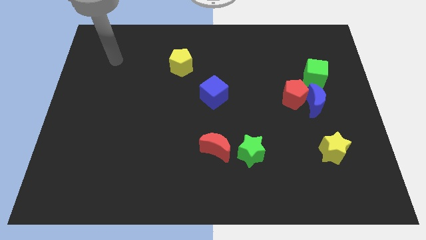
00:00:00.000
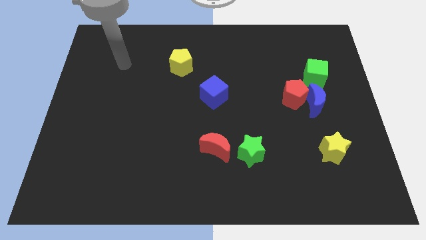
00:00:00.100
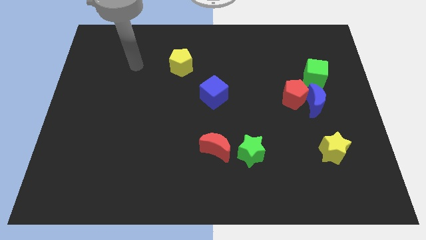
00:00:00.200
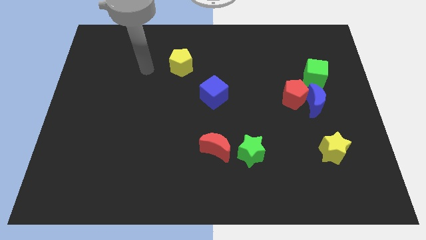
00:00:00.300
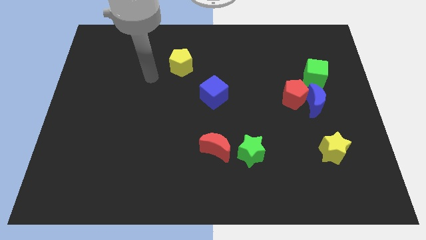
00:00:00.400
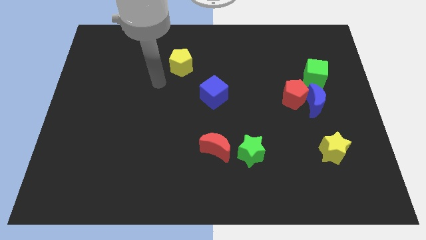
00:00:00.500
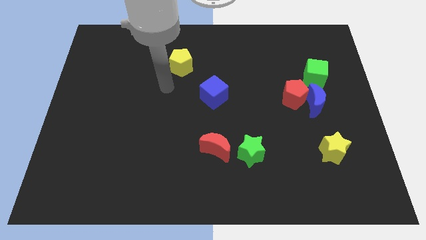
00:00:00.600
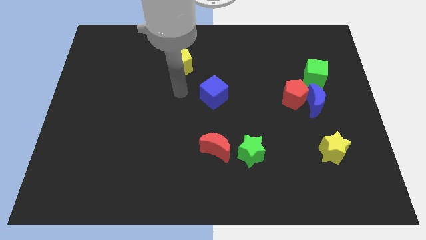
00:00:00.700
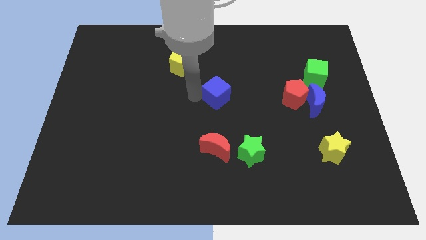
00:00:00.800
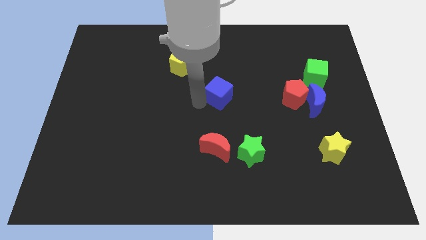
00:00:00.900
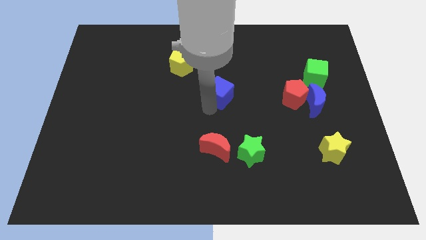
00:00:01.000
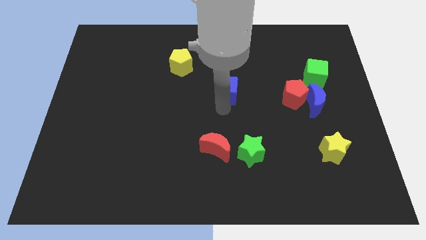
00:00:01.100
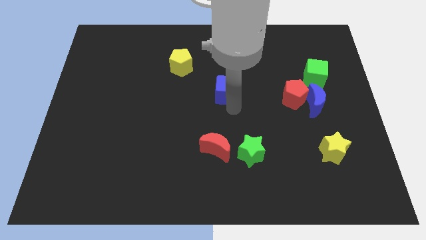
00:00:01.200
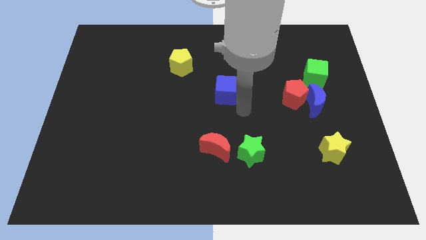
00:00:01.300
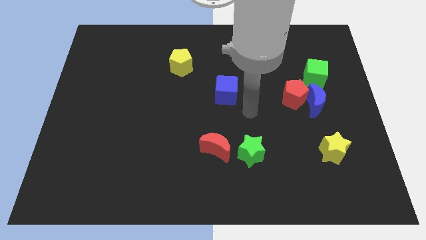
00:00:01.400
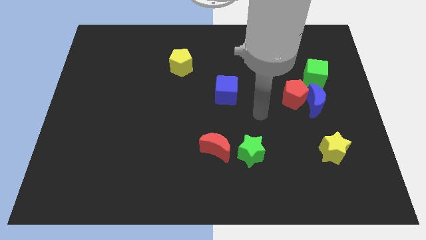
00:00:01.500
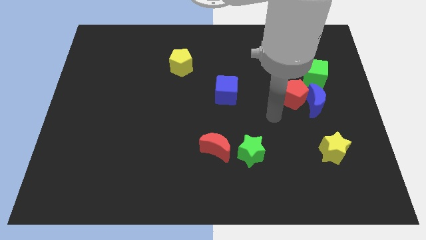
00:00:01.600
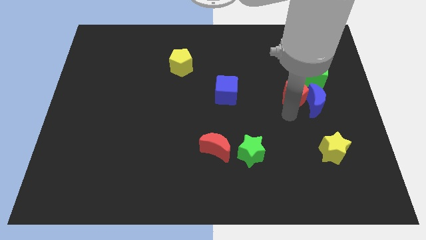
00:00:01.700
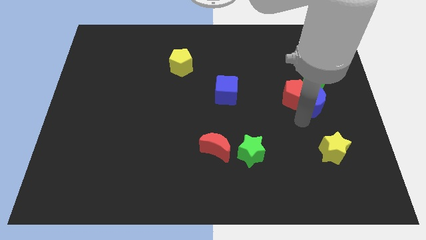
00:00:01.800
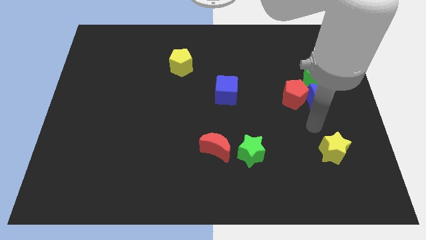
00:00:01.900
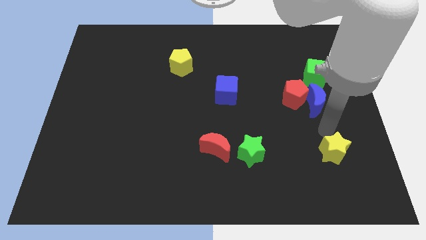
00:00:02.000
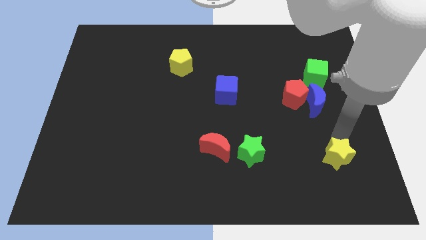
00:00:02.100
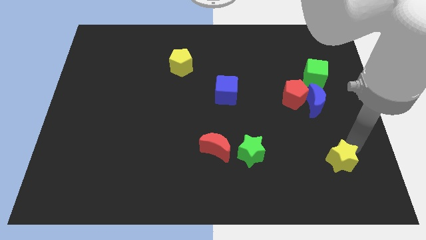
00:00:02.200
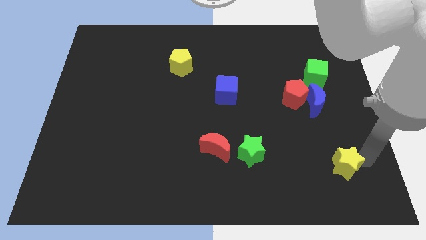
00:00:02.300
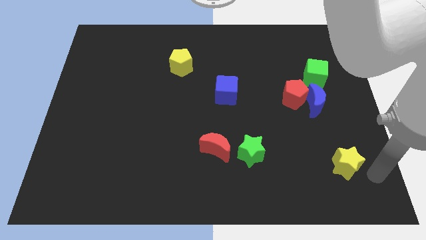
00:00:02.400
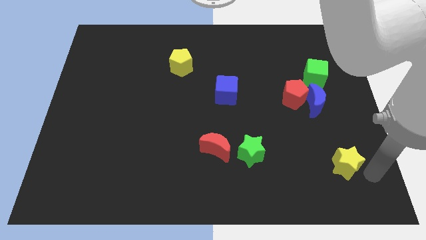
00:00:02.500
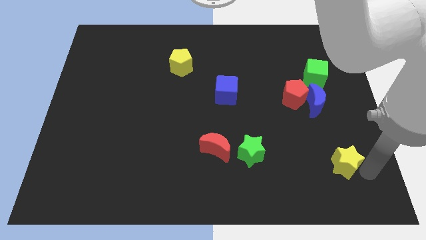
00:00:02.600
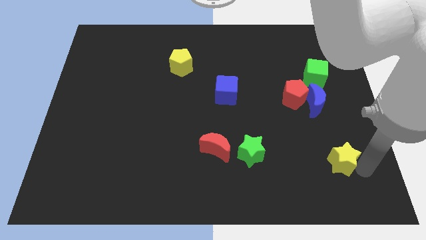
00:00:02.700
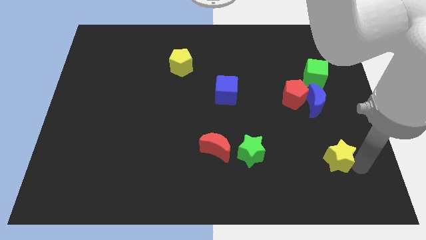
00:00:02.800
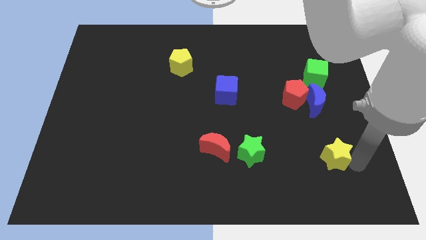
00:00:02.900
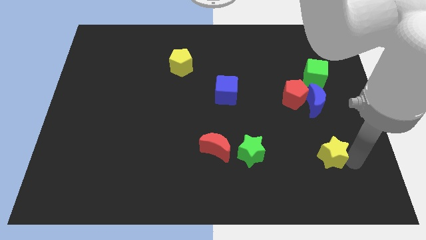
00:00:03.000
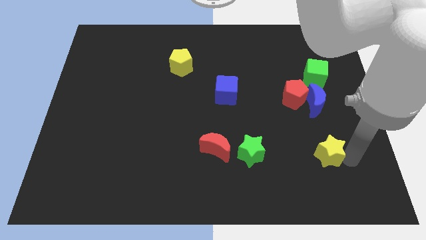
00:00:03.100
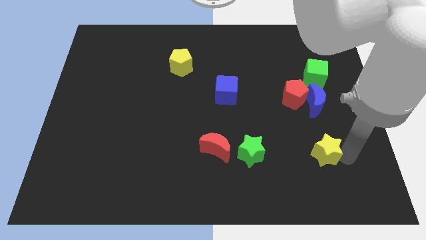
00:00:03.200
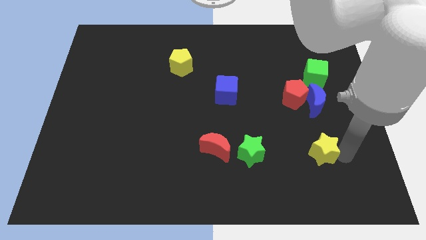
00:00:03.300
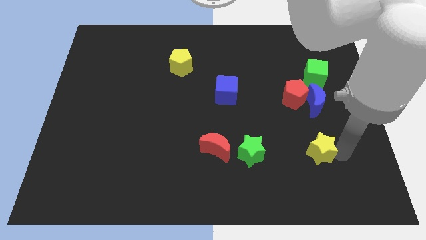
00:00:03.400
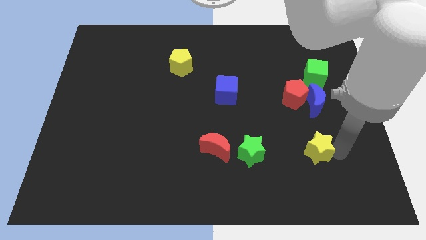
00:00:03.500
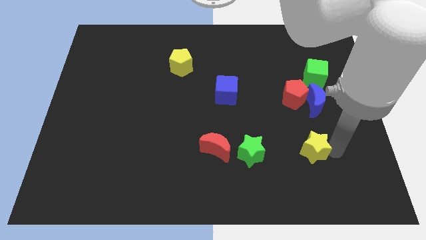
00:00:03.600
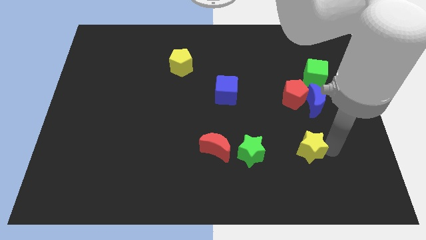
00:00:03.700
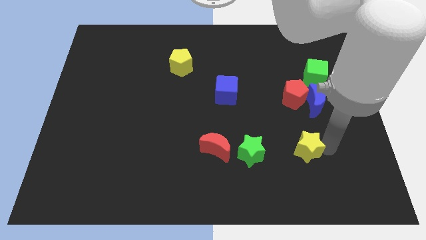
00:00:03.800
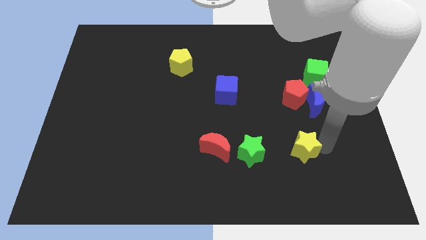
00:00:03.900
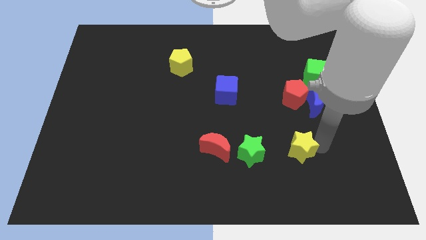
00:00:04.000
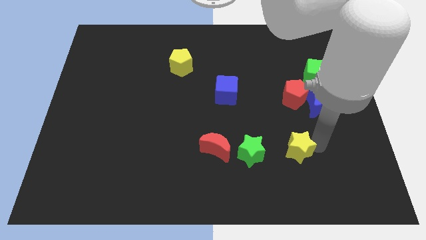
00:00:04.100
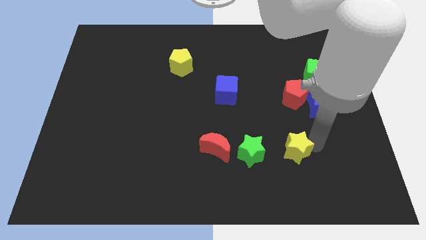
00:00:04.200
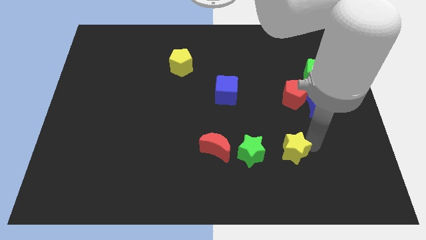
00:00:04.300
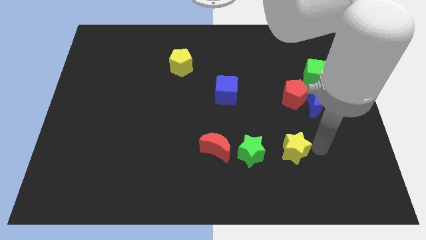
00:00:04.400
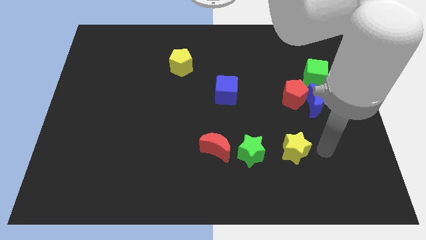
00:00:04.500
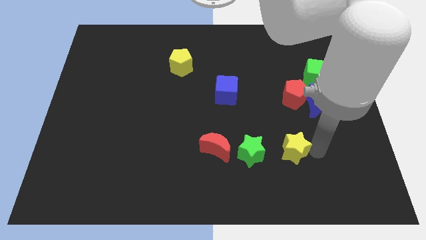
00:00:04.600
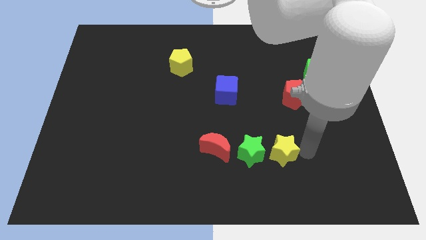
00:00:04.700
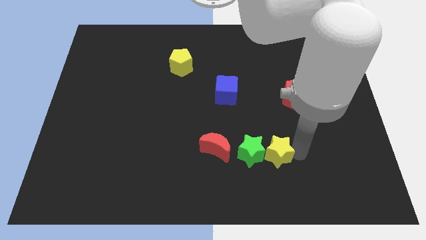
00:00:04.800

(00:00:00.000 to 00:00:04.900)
push the yellow star towards the green star

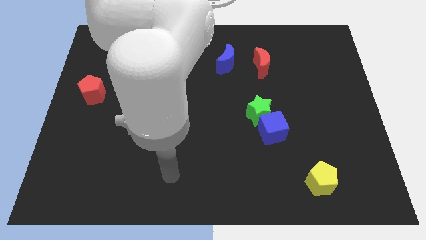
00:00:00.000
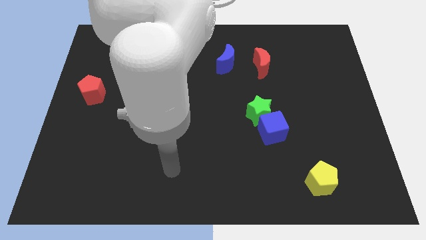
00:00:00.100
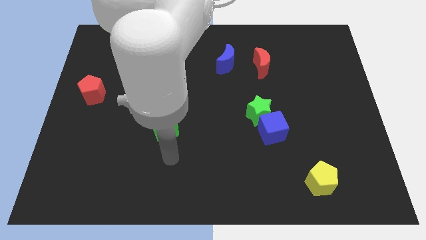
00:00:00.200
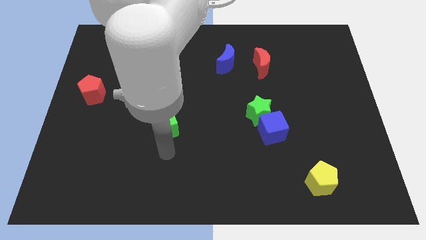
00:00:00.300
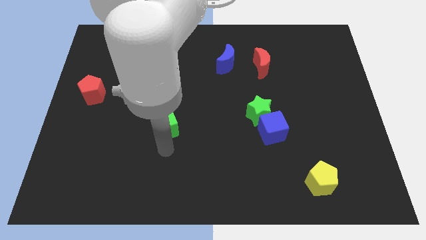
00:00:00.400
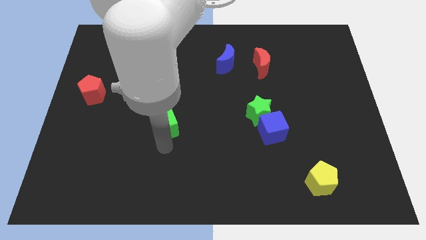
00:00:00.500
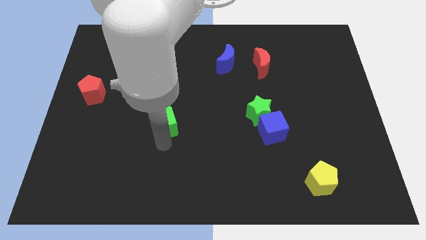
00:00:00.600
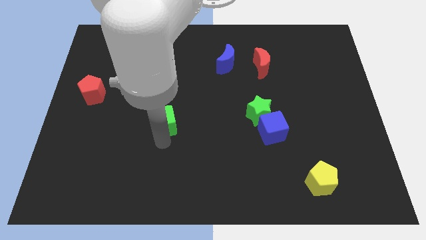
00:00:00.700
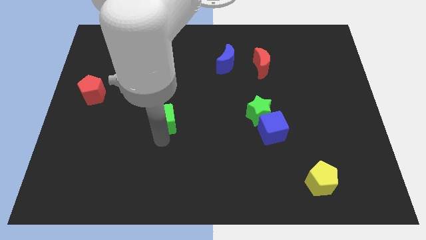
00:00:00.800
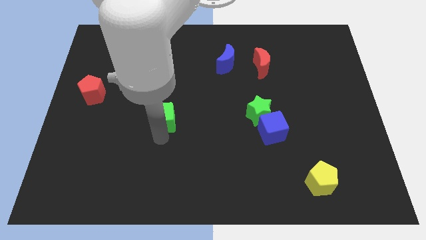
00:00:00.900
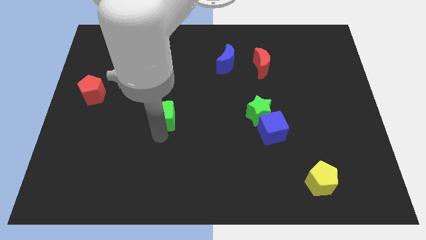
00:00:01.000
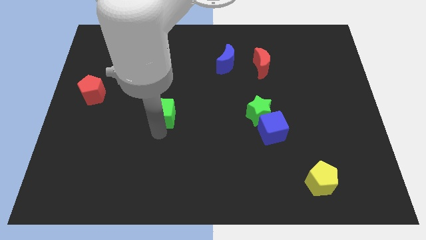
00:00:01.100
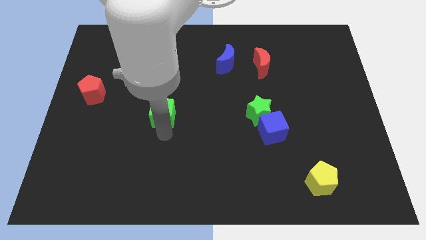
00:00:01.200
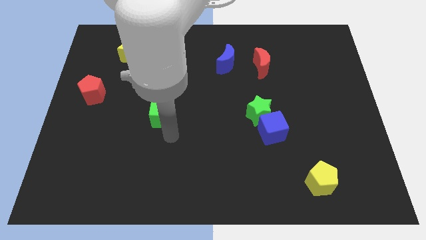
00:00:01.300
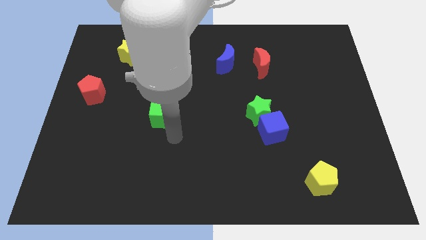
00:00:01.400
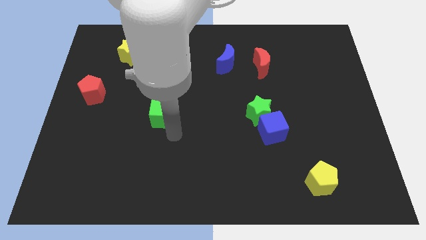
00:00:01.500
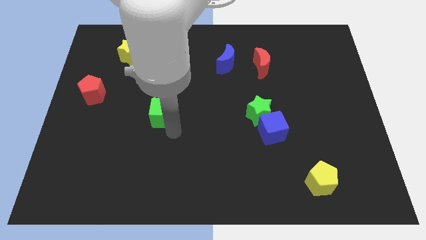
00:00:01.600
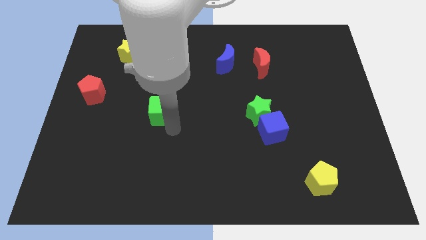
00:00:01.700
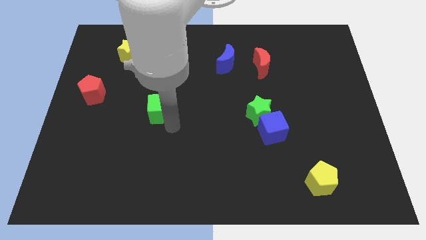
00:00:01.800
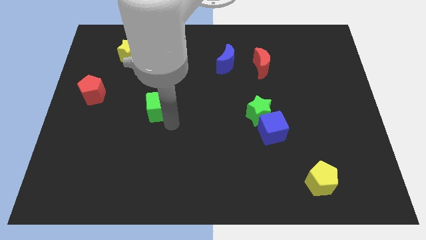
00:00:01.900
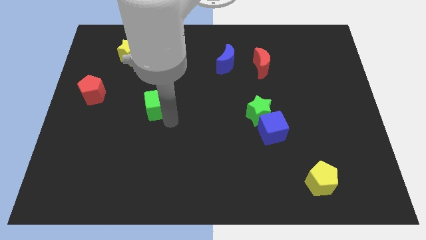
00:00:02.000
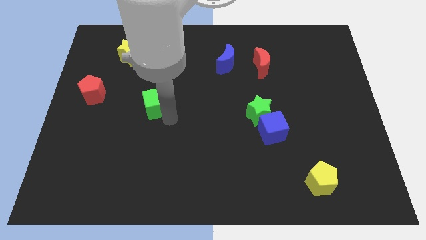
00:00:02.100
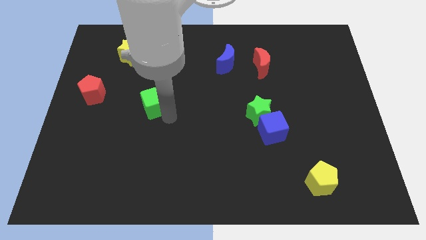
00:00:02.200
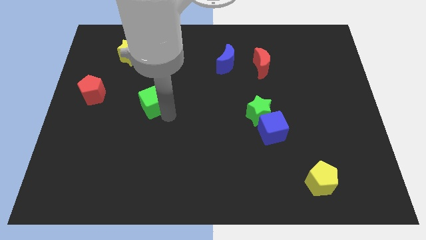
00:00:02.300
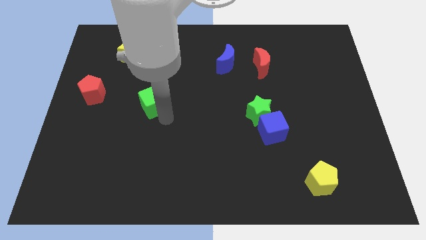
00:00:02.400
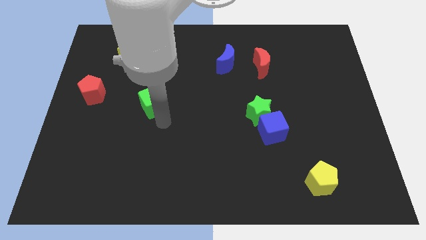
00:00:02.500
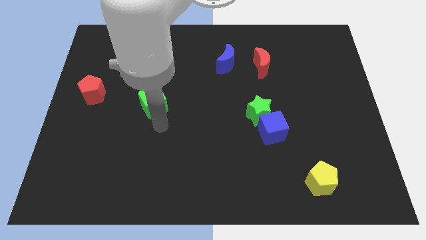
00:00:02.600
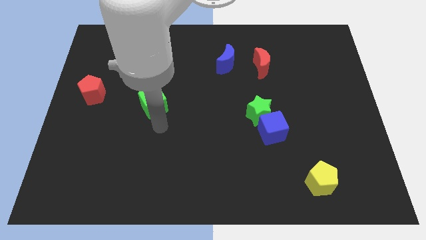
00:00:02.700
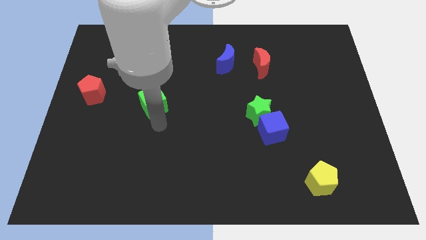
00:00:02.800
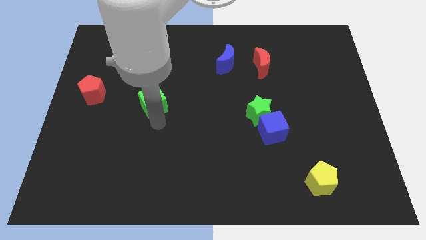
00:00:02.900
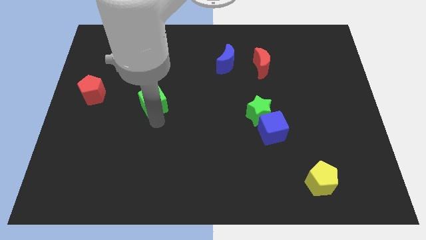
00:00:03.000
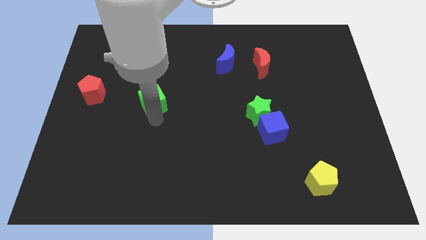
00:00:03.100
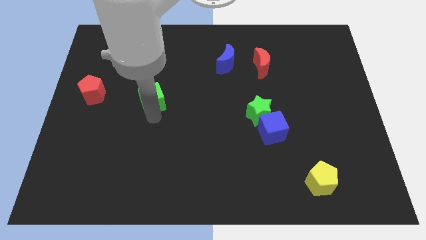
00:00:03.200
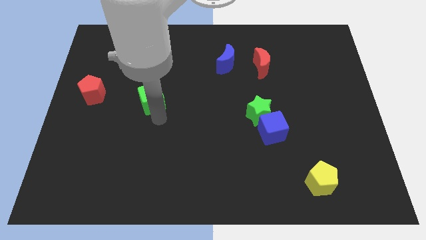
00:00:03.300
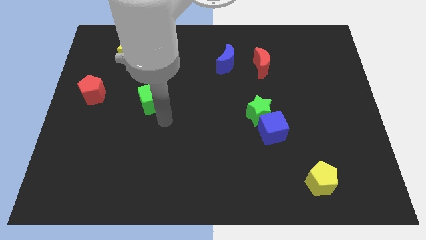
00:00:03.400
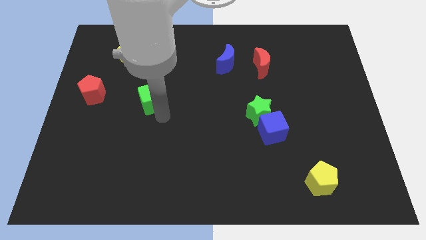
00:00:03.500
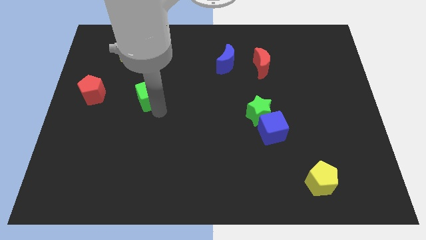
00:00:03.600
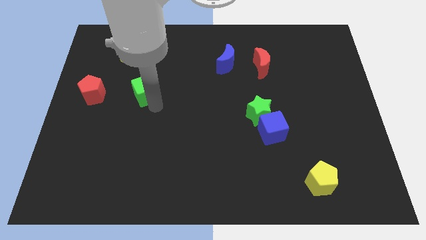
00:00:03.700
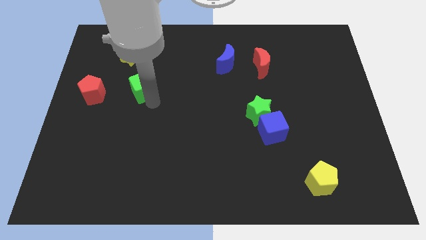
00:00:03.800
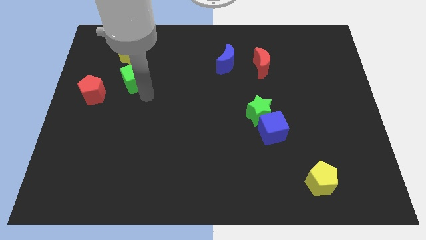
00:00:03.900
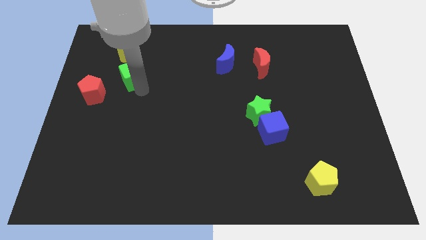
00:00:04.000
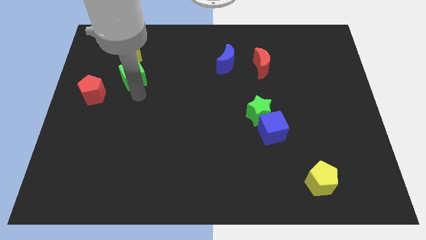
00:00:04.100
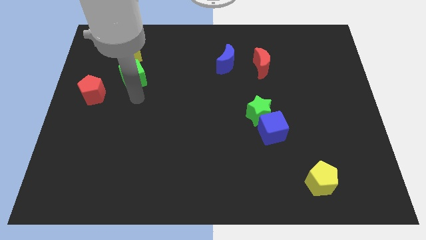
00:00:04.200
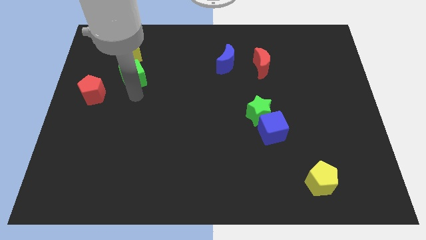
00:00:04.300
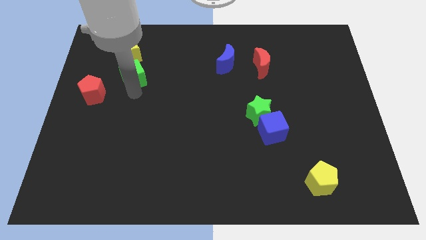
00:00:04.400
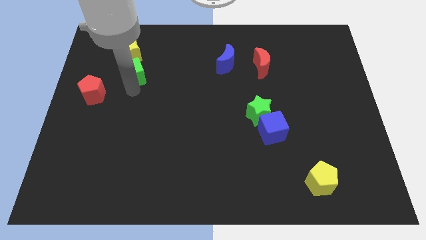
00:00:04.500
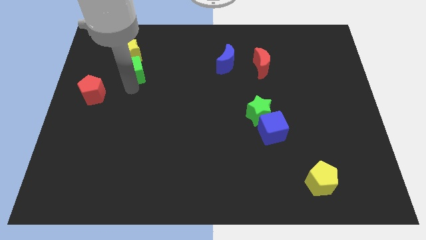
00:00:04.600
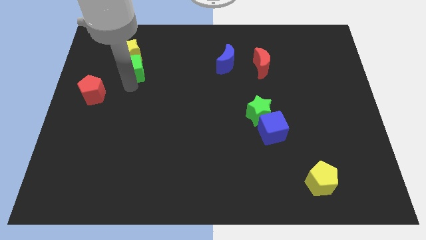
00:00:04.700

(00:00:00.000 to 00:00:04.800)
push the green cube close to the yellow star
